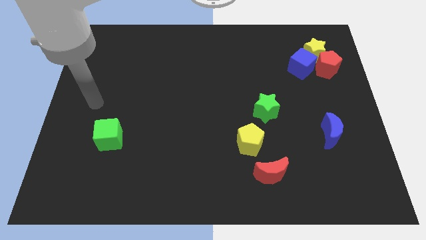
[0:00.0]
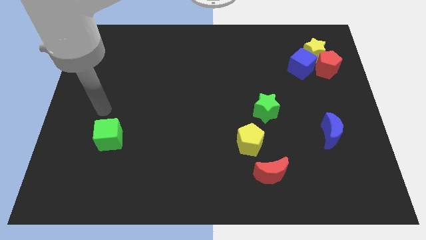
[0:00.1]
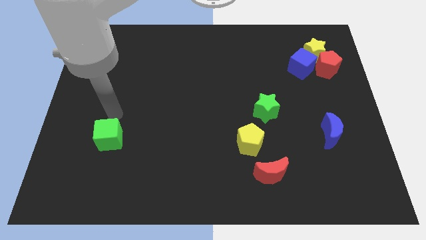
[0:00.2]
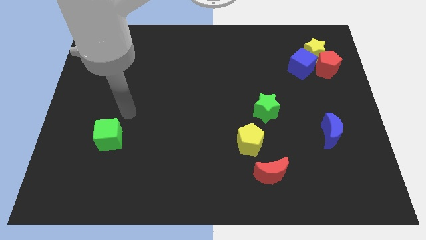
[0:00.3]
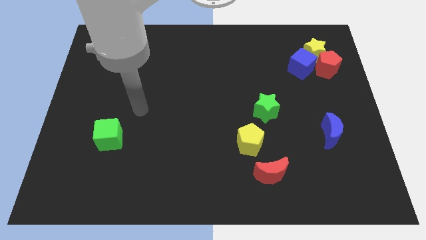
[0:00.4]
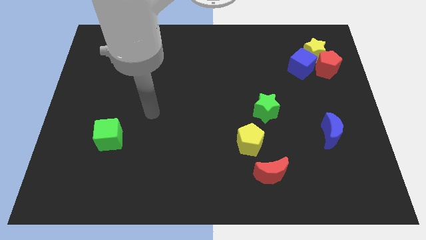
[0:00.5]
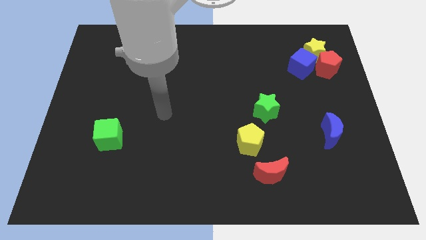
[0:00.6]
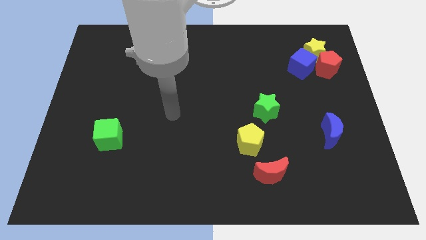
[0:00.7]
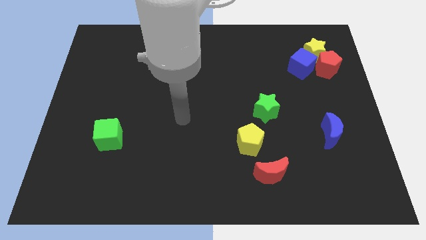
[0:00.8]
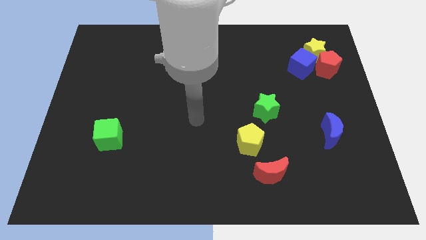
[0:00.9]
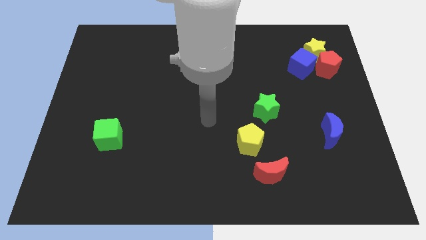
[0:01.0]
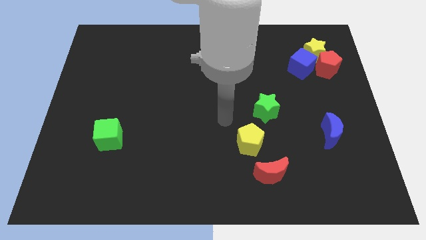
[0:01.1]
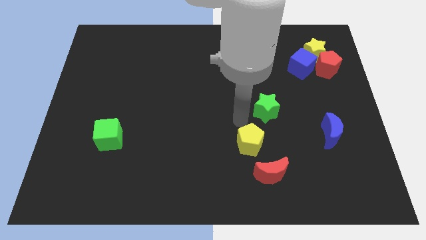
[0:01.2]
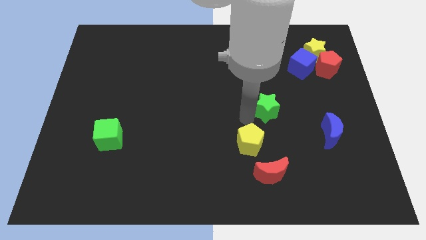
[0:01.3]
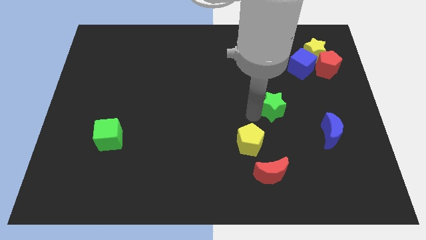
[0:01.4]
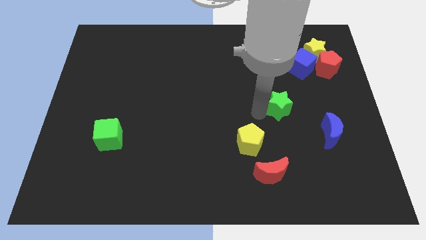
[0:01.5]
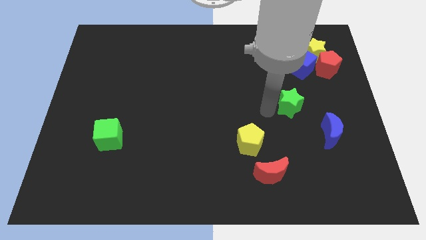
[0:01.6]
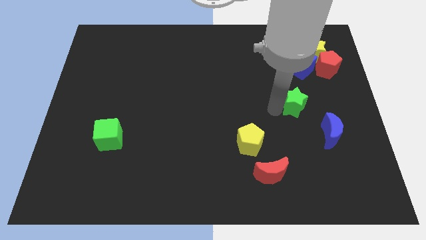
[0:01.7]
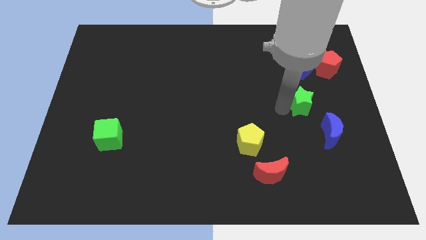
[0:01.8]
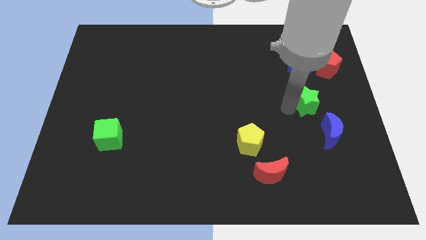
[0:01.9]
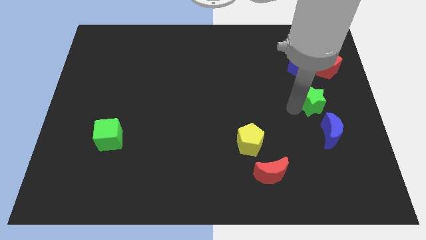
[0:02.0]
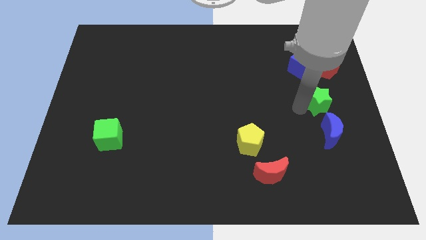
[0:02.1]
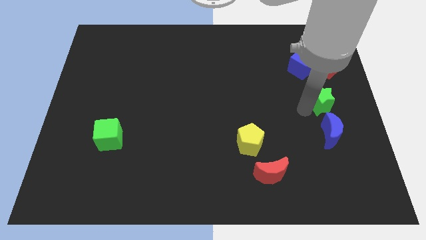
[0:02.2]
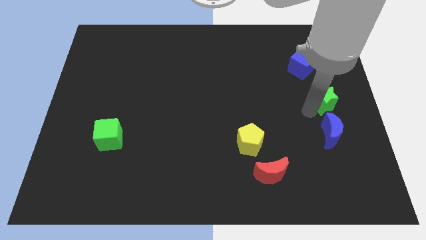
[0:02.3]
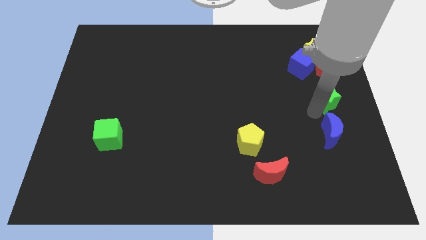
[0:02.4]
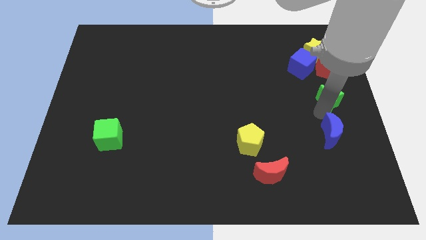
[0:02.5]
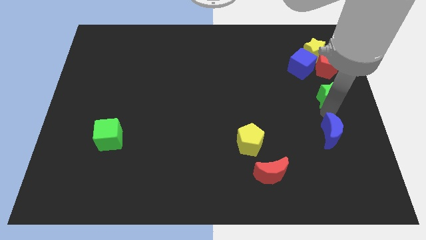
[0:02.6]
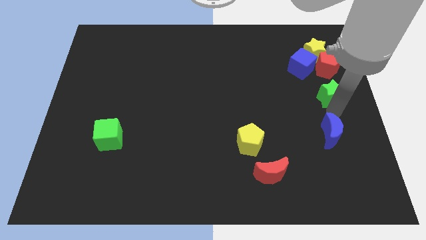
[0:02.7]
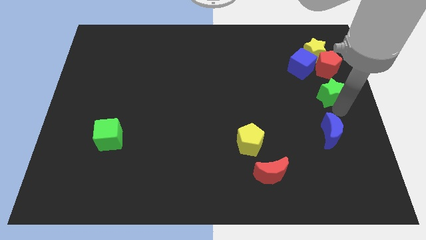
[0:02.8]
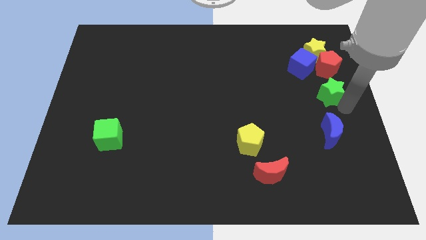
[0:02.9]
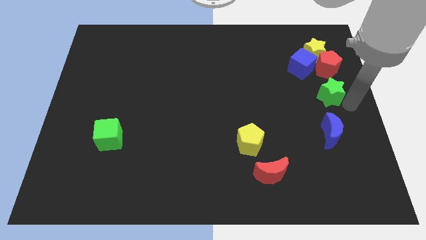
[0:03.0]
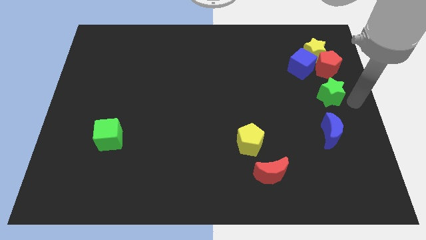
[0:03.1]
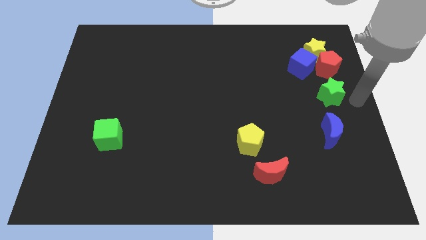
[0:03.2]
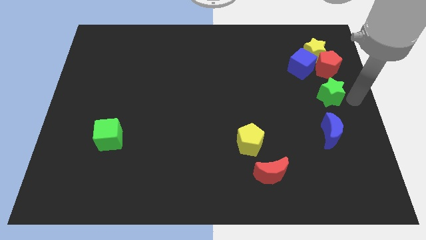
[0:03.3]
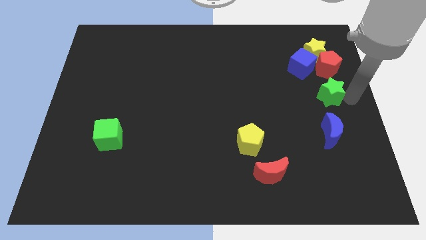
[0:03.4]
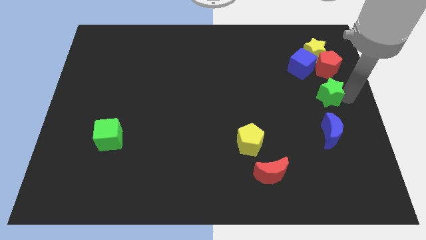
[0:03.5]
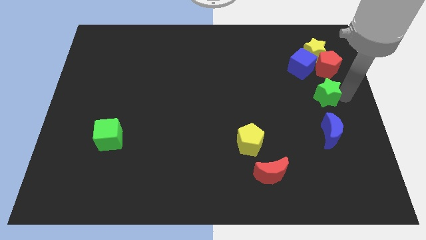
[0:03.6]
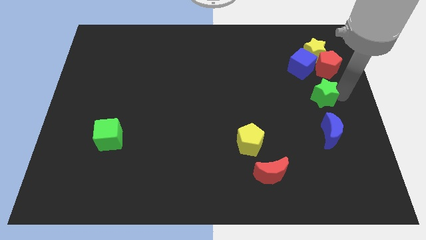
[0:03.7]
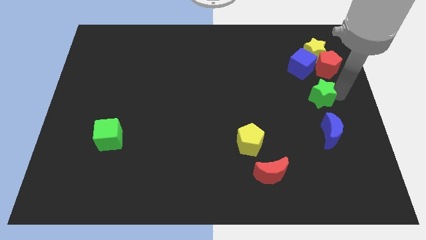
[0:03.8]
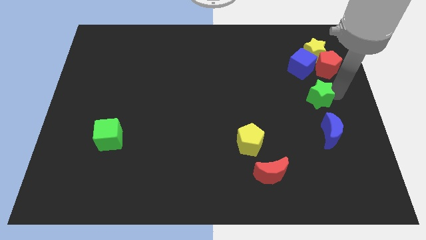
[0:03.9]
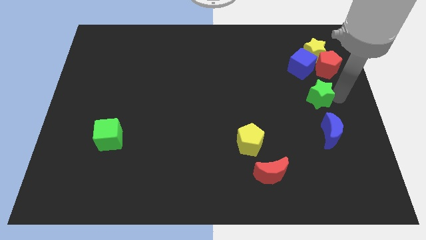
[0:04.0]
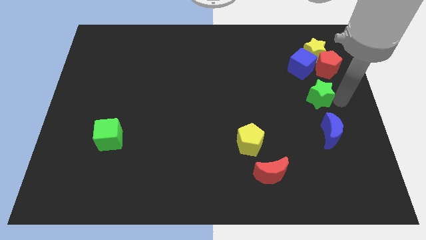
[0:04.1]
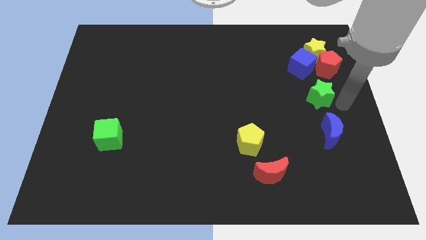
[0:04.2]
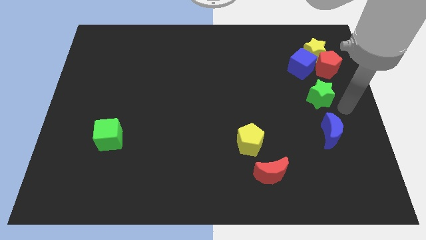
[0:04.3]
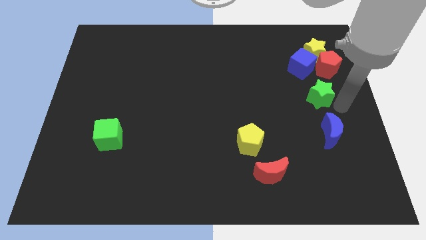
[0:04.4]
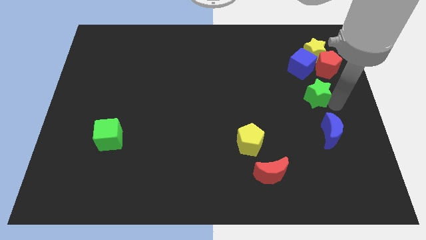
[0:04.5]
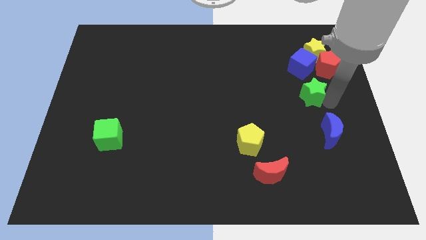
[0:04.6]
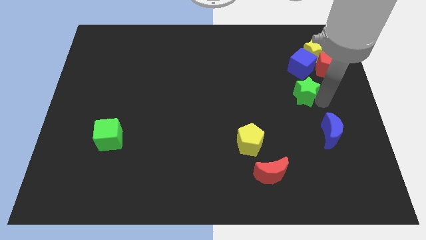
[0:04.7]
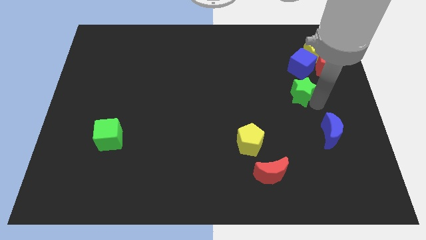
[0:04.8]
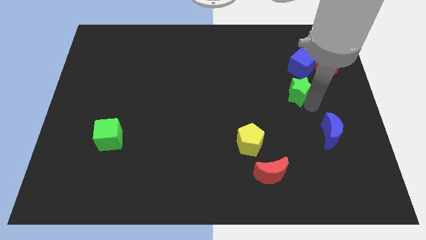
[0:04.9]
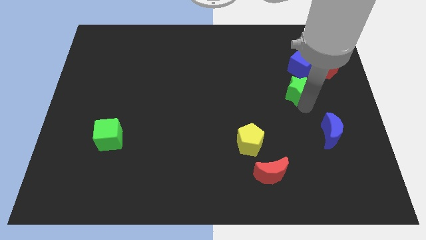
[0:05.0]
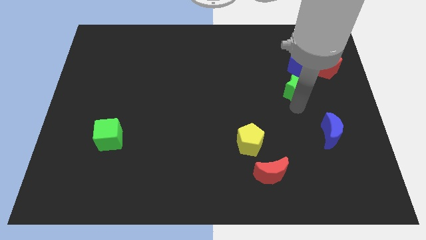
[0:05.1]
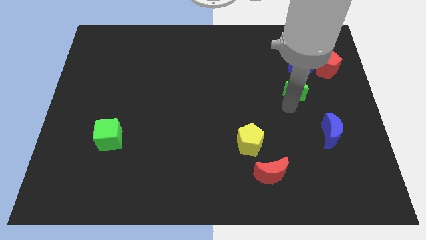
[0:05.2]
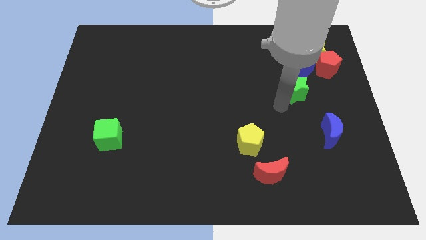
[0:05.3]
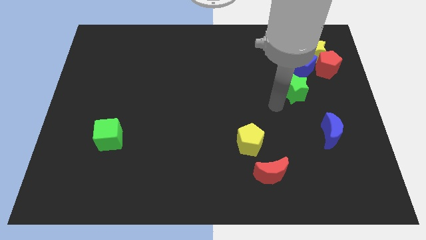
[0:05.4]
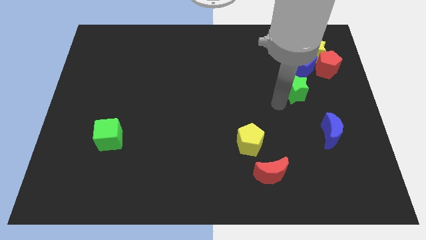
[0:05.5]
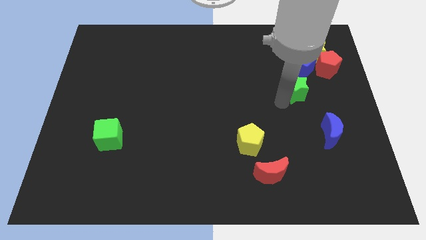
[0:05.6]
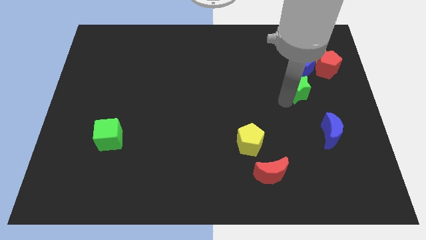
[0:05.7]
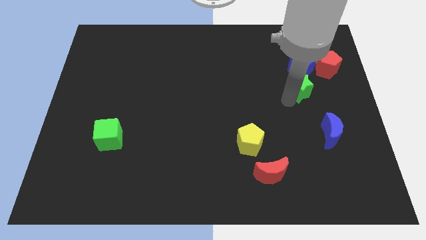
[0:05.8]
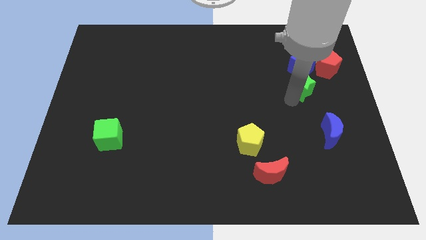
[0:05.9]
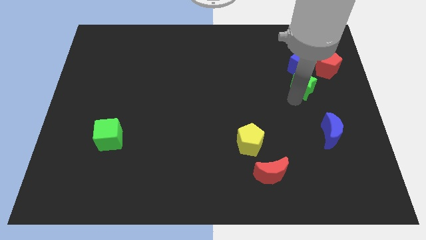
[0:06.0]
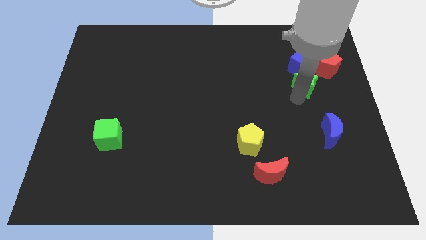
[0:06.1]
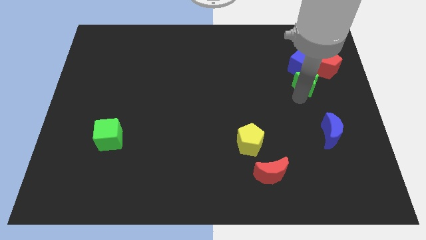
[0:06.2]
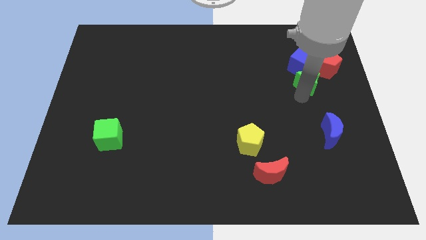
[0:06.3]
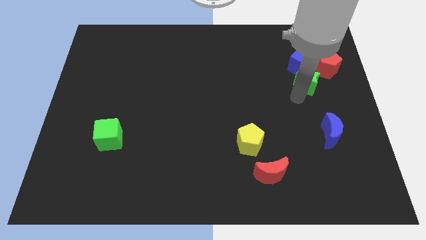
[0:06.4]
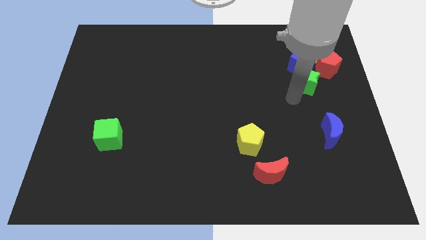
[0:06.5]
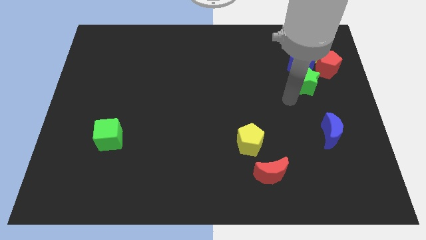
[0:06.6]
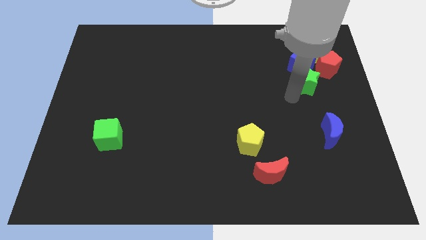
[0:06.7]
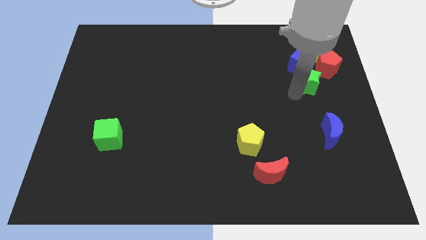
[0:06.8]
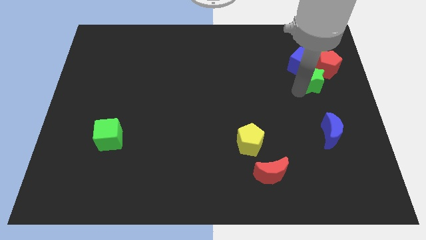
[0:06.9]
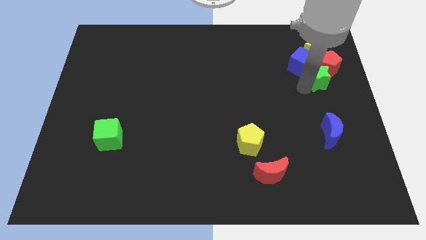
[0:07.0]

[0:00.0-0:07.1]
push the green star towards the red pentagon

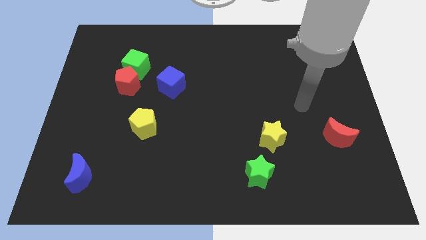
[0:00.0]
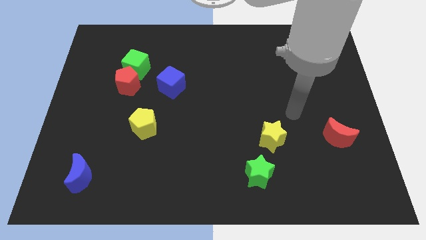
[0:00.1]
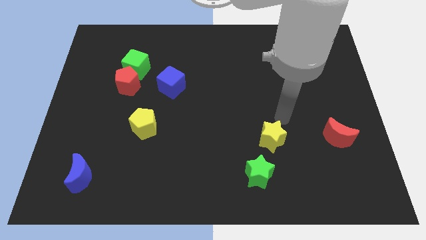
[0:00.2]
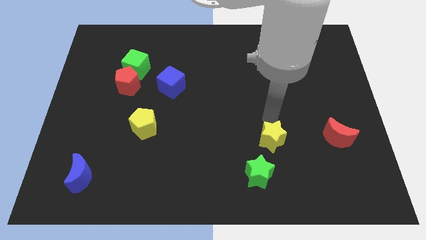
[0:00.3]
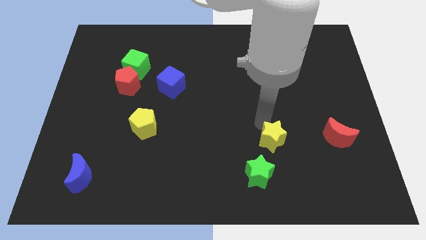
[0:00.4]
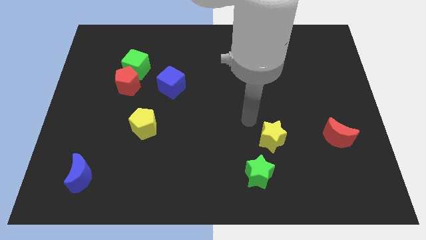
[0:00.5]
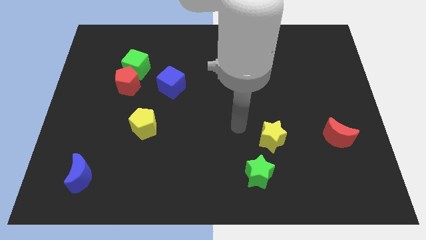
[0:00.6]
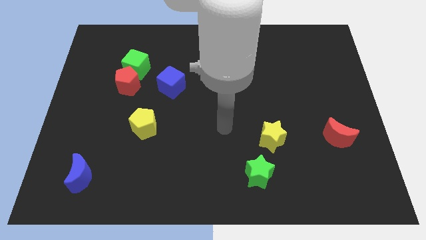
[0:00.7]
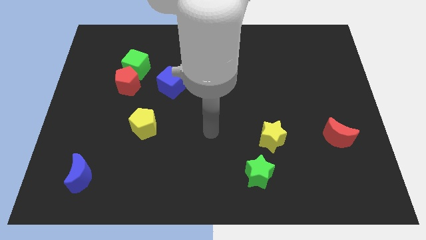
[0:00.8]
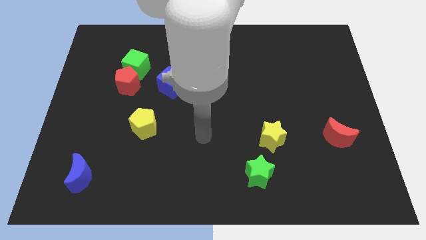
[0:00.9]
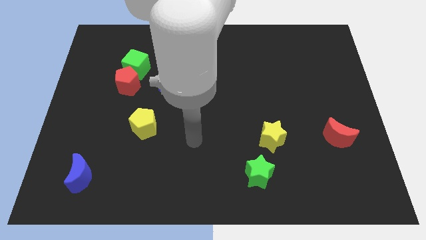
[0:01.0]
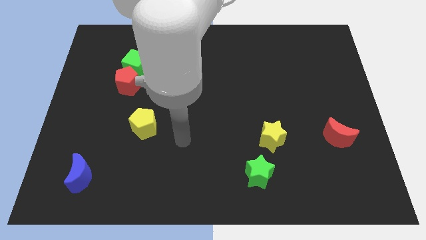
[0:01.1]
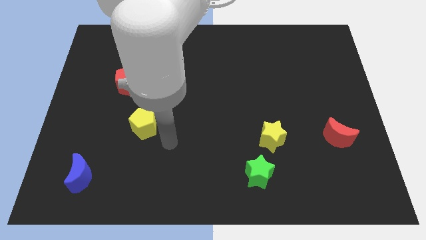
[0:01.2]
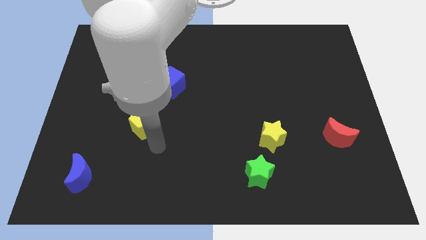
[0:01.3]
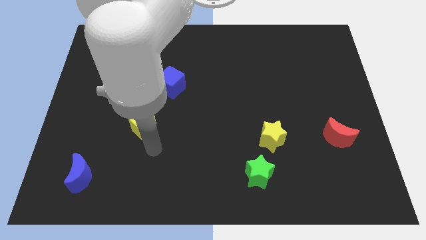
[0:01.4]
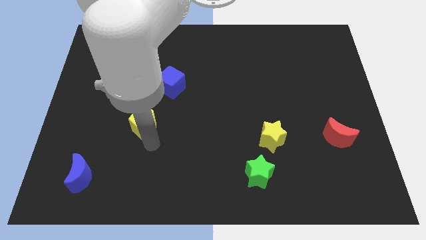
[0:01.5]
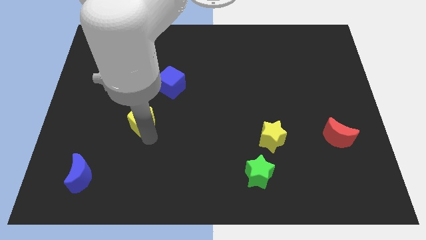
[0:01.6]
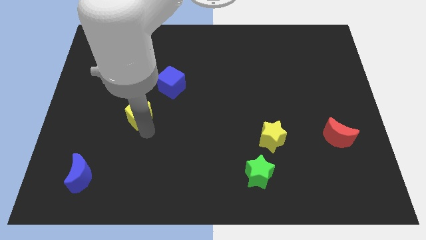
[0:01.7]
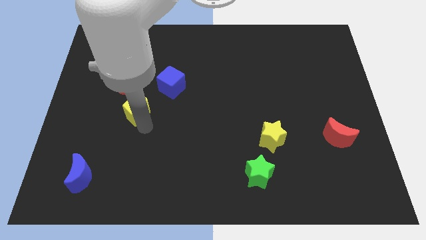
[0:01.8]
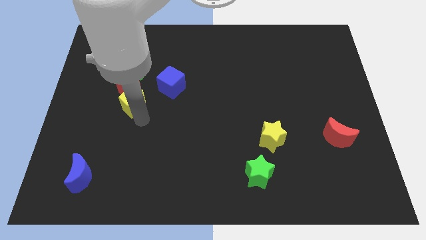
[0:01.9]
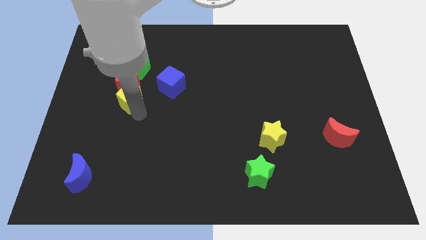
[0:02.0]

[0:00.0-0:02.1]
slide the yellow pentagon close to the red pentagon
